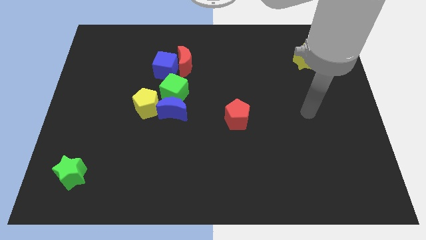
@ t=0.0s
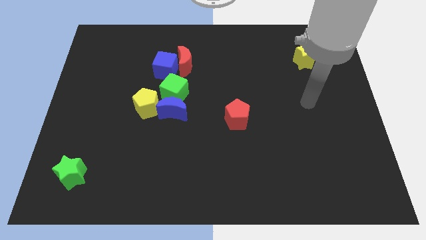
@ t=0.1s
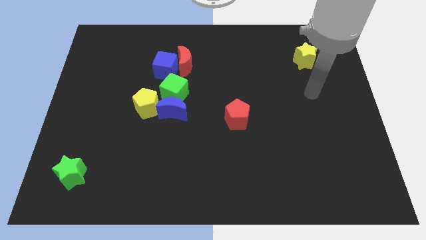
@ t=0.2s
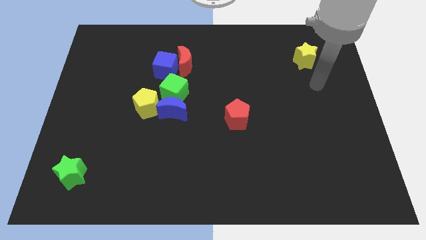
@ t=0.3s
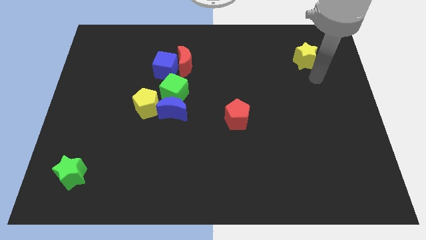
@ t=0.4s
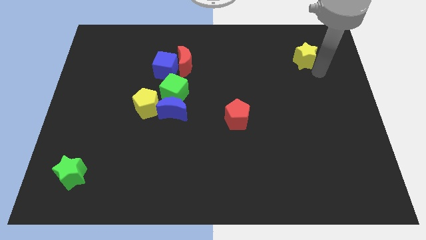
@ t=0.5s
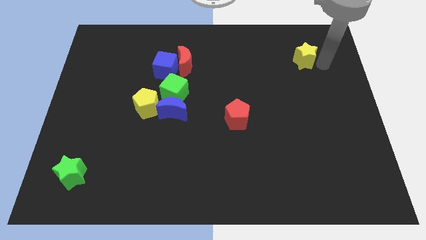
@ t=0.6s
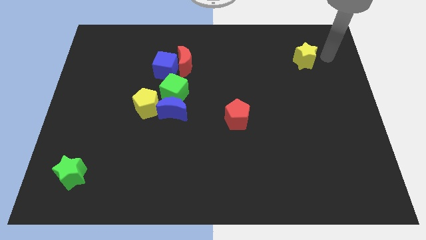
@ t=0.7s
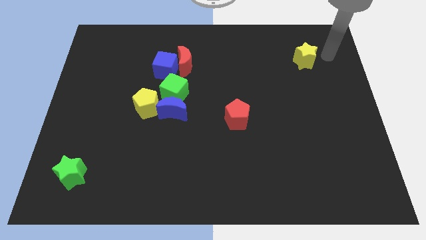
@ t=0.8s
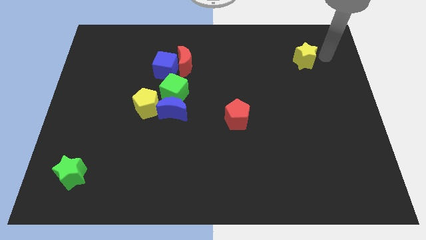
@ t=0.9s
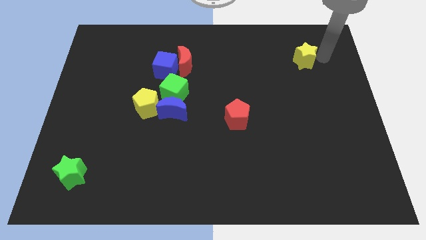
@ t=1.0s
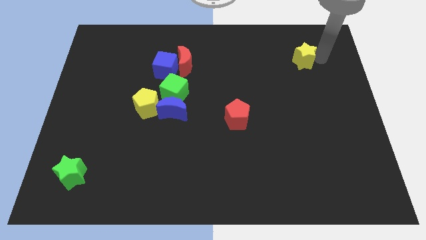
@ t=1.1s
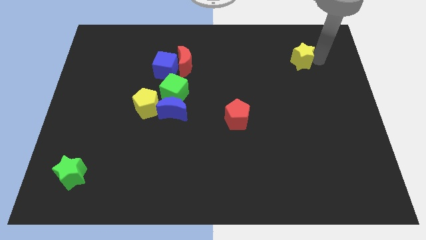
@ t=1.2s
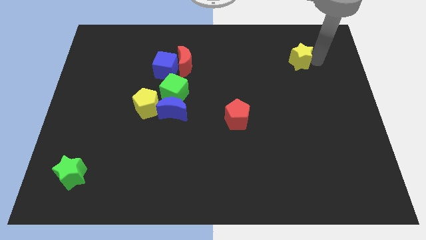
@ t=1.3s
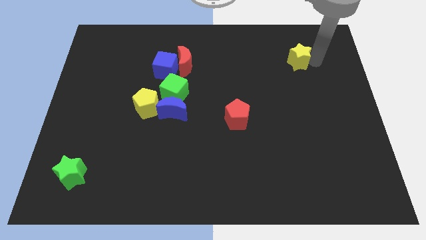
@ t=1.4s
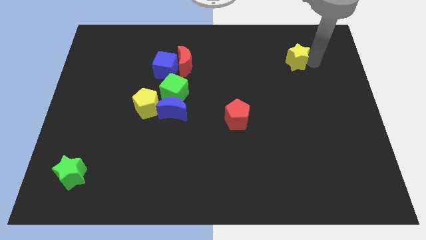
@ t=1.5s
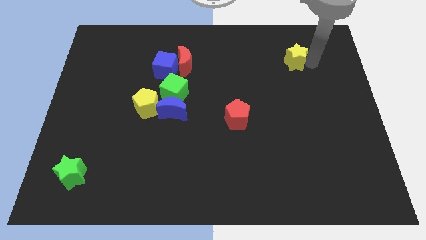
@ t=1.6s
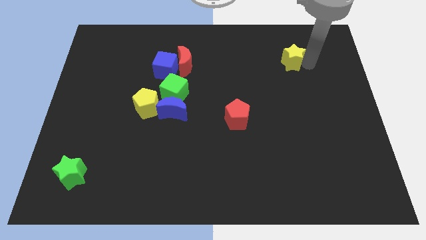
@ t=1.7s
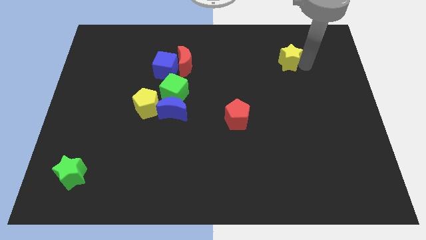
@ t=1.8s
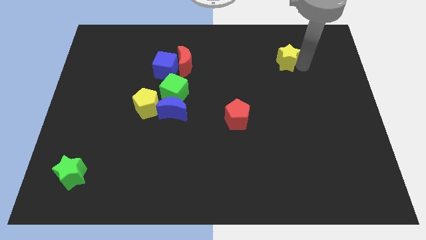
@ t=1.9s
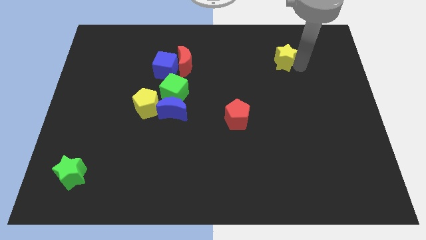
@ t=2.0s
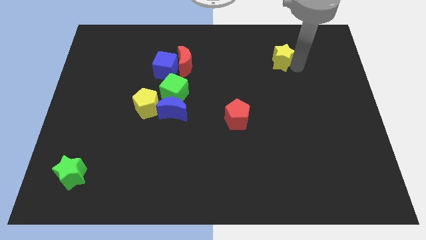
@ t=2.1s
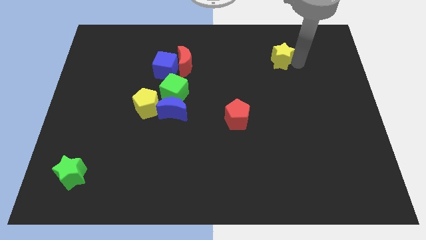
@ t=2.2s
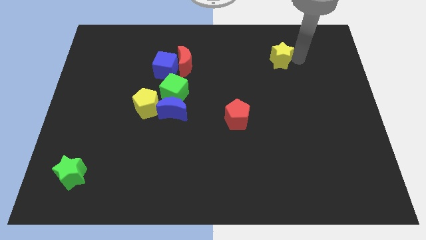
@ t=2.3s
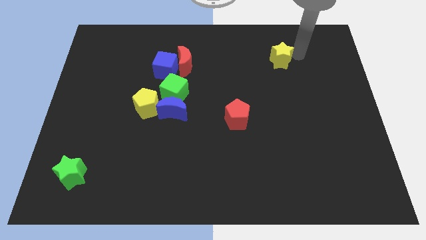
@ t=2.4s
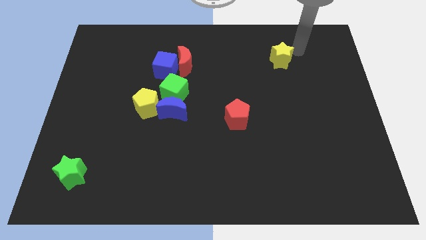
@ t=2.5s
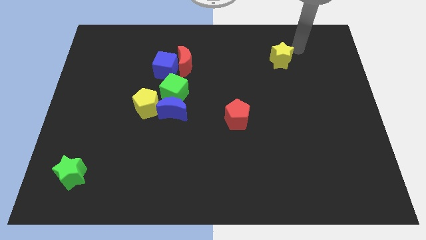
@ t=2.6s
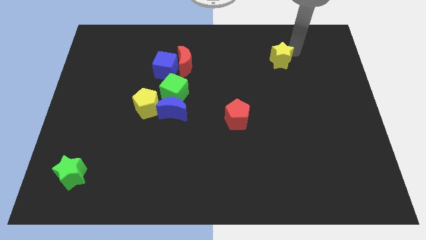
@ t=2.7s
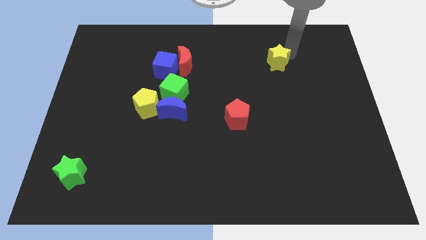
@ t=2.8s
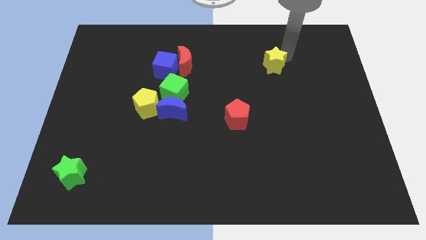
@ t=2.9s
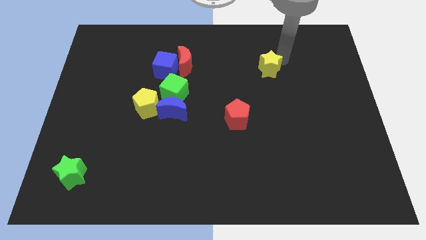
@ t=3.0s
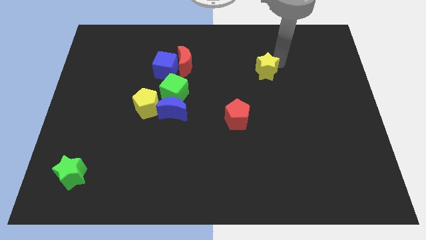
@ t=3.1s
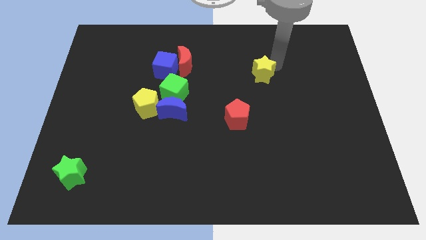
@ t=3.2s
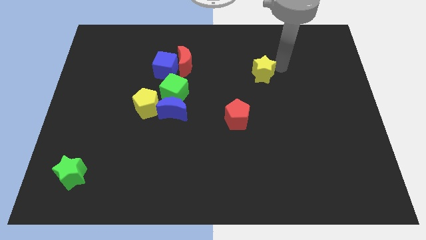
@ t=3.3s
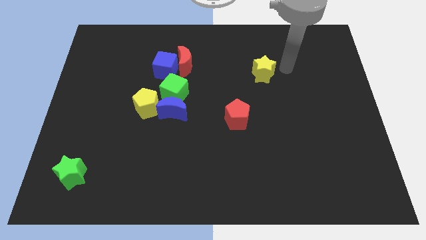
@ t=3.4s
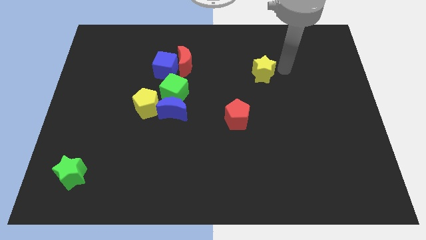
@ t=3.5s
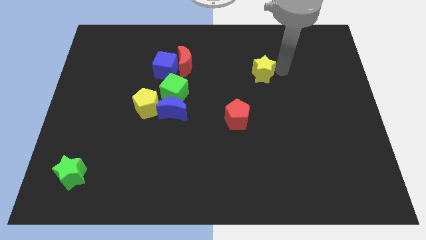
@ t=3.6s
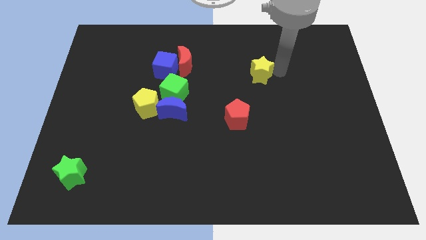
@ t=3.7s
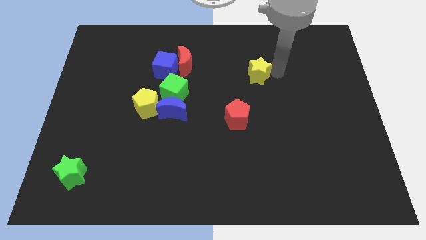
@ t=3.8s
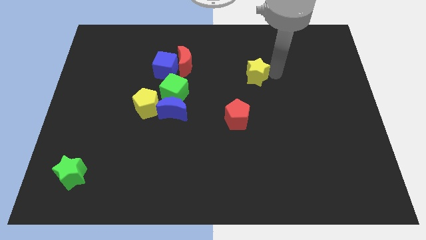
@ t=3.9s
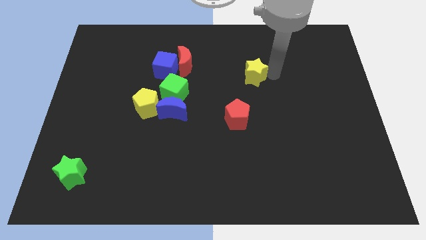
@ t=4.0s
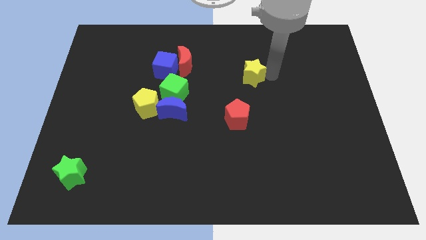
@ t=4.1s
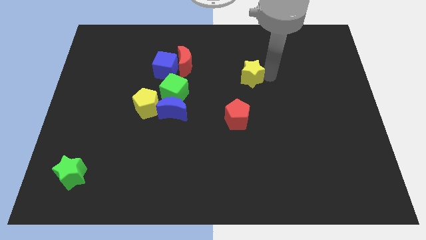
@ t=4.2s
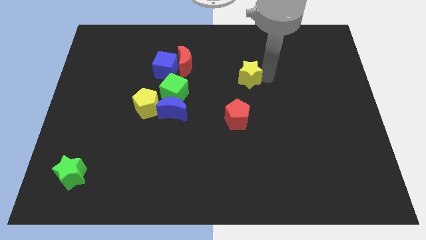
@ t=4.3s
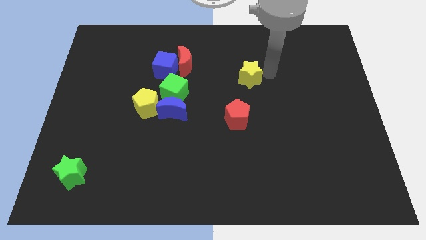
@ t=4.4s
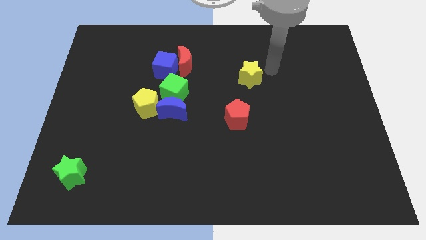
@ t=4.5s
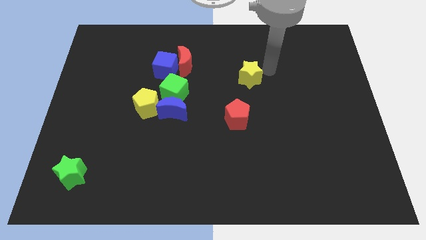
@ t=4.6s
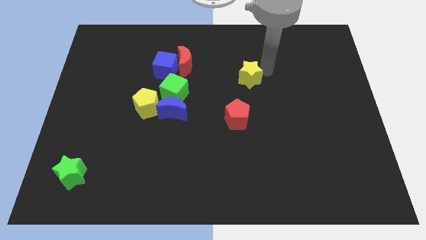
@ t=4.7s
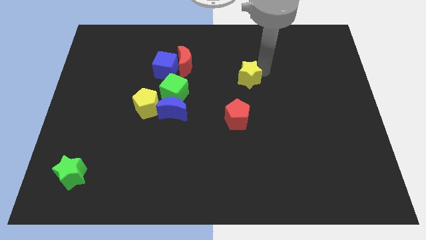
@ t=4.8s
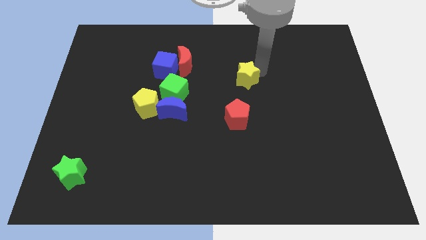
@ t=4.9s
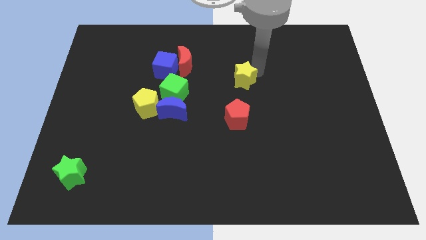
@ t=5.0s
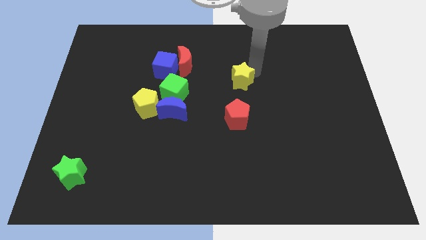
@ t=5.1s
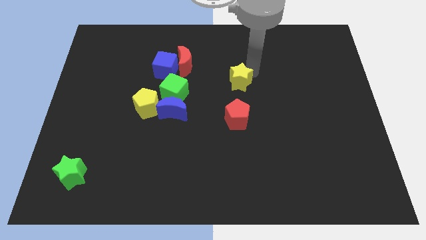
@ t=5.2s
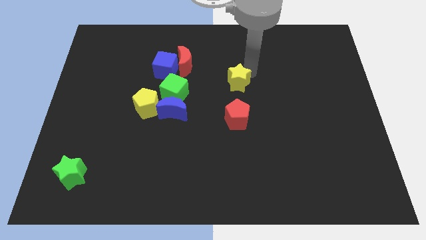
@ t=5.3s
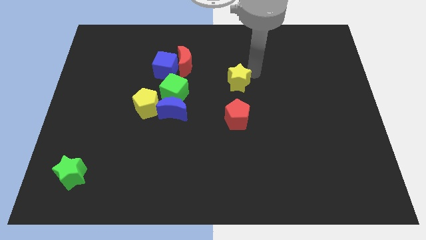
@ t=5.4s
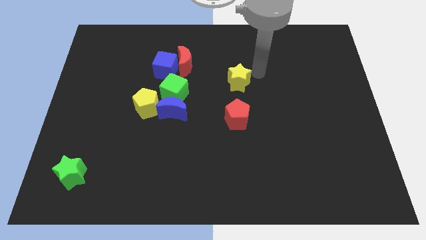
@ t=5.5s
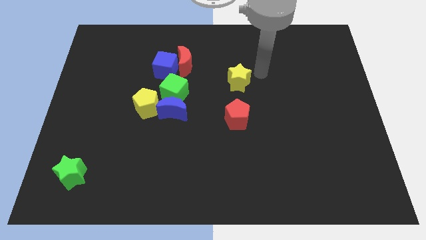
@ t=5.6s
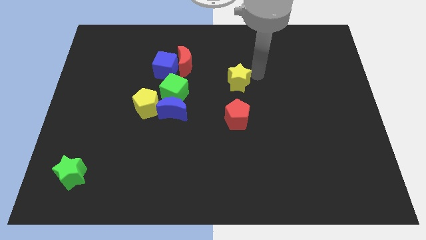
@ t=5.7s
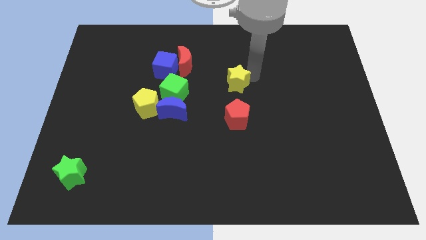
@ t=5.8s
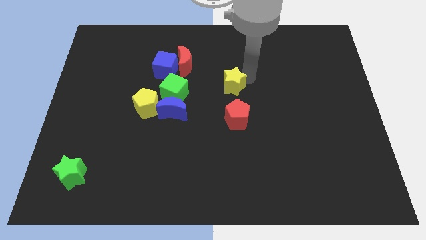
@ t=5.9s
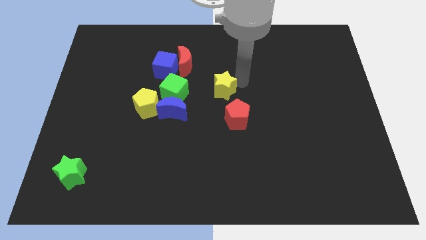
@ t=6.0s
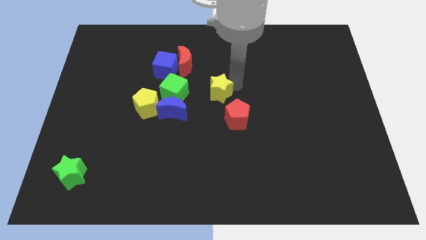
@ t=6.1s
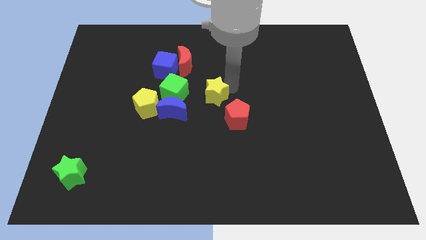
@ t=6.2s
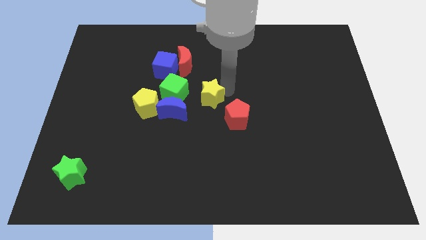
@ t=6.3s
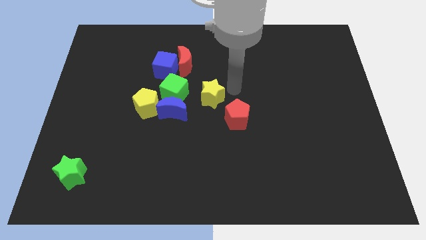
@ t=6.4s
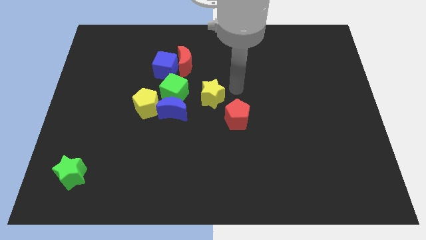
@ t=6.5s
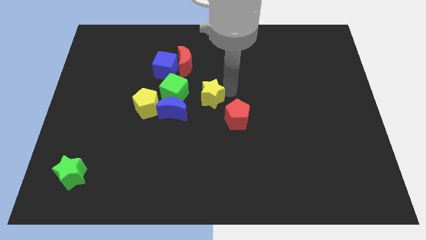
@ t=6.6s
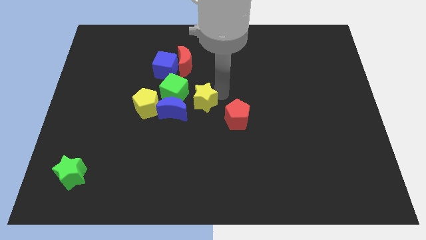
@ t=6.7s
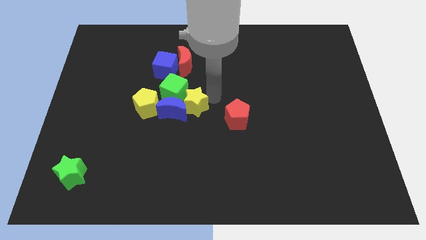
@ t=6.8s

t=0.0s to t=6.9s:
push the yellow star towards the blue moon

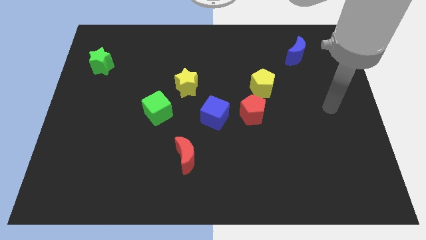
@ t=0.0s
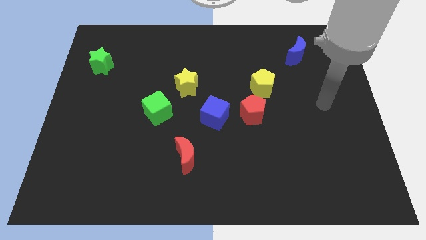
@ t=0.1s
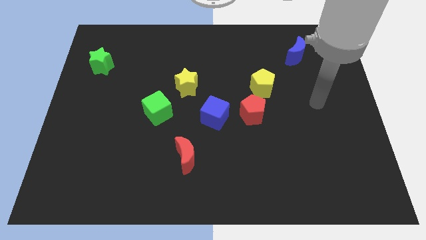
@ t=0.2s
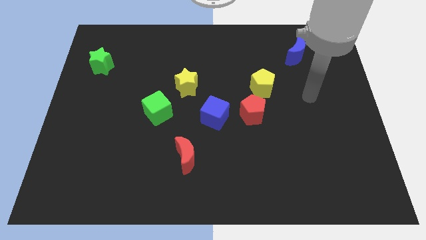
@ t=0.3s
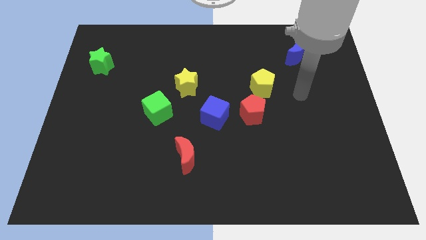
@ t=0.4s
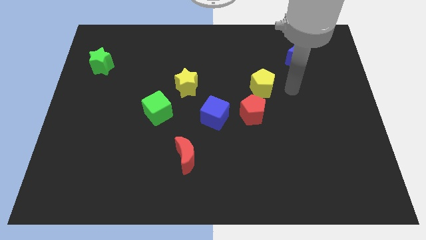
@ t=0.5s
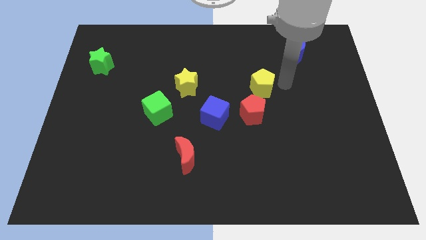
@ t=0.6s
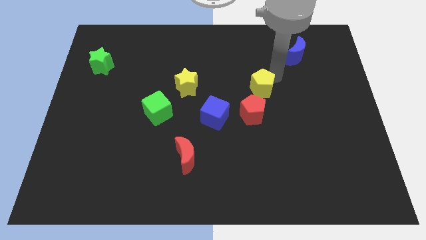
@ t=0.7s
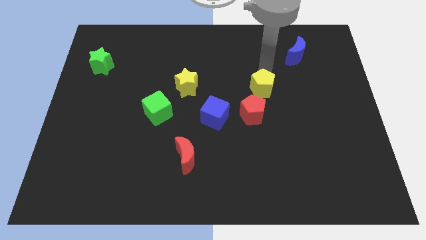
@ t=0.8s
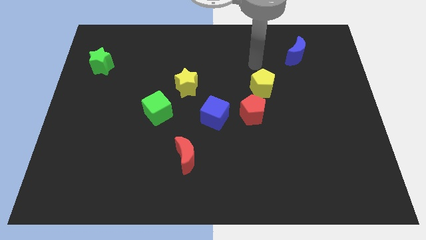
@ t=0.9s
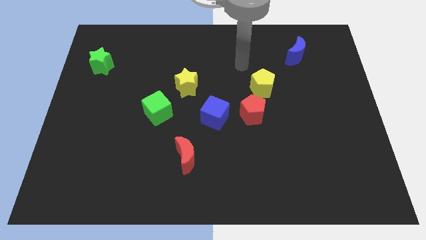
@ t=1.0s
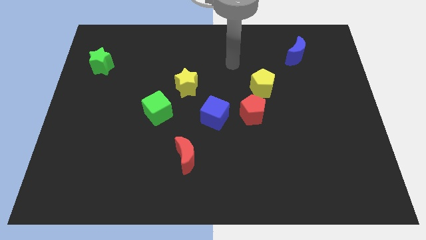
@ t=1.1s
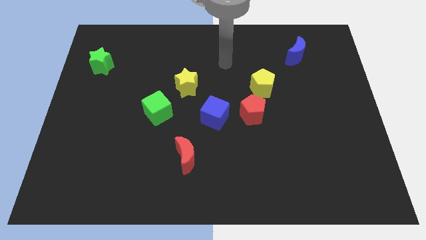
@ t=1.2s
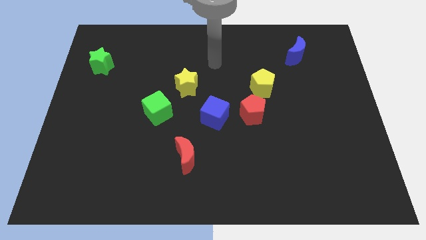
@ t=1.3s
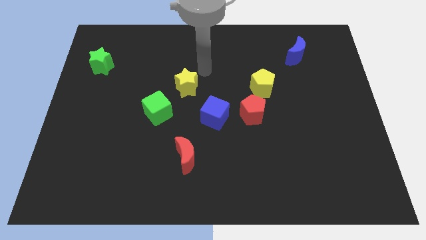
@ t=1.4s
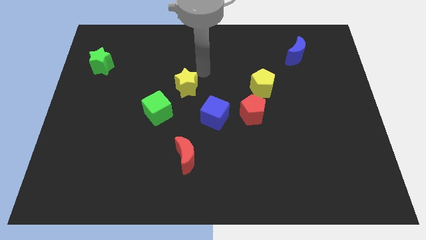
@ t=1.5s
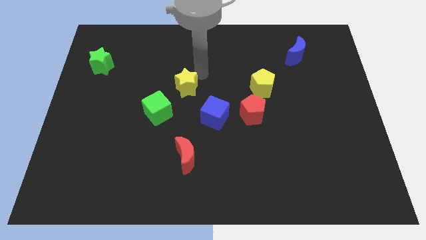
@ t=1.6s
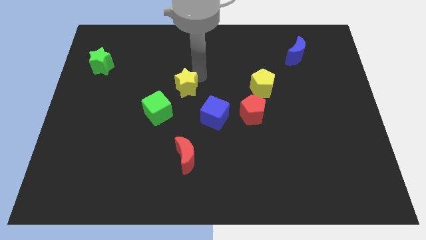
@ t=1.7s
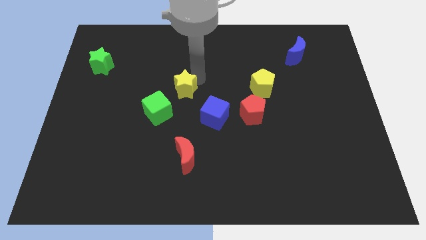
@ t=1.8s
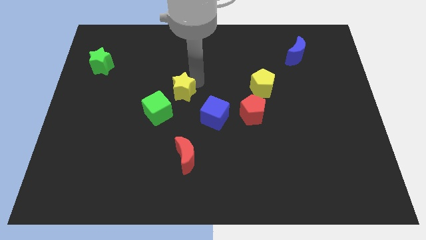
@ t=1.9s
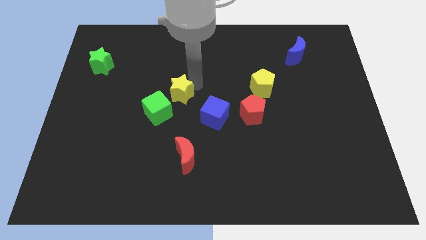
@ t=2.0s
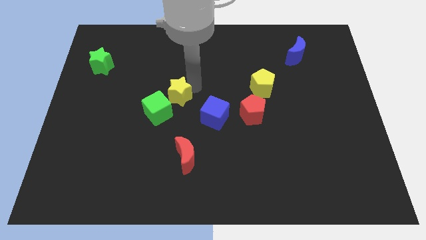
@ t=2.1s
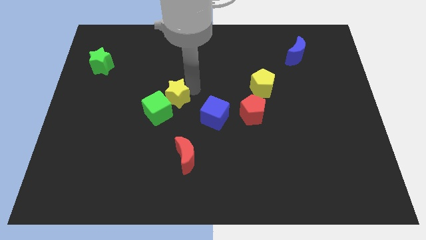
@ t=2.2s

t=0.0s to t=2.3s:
slide the yellow star to the green cube
